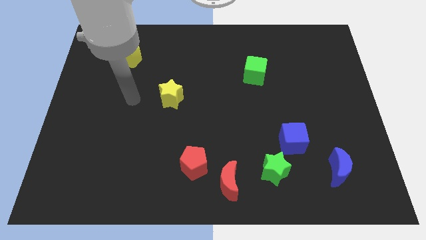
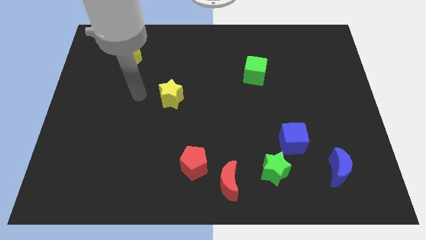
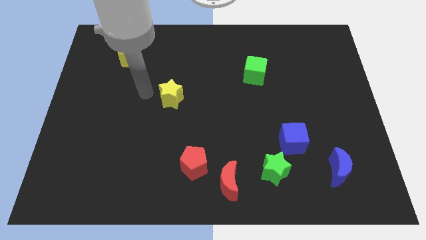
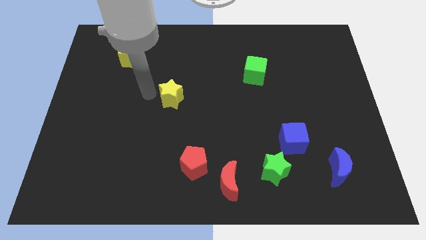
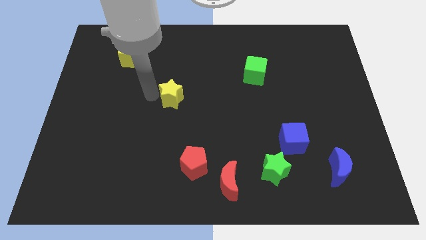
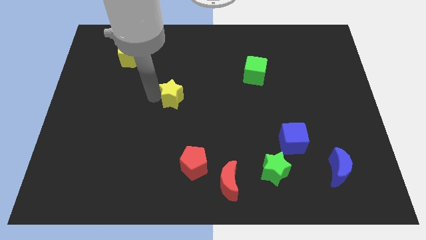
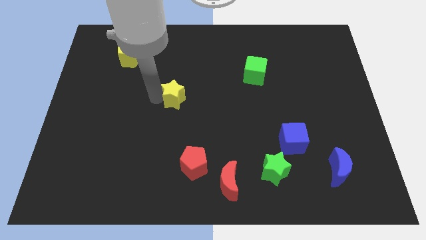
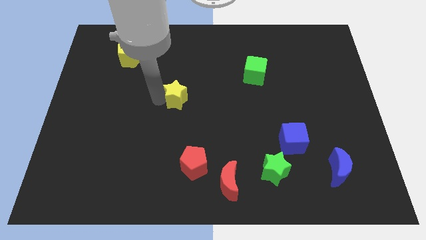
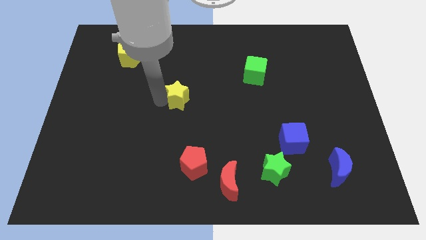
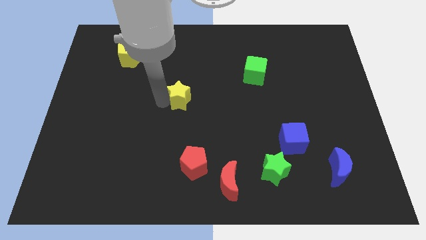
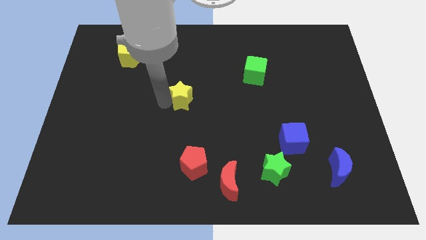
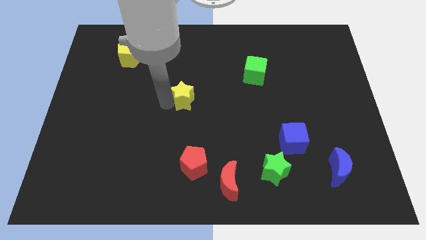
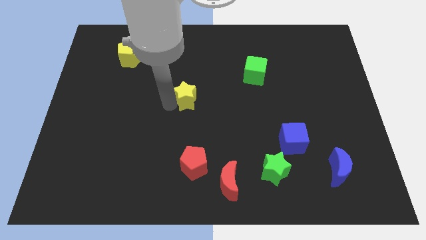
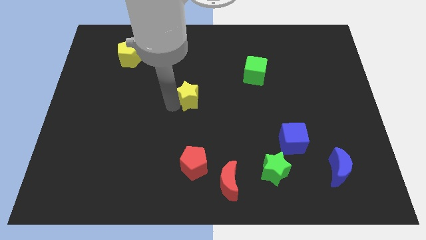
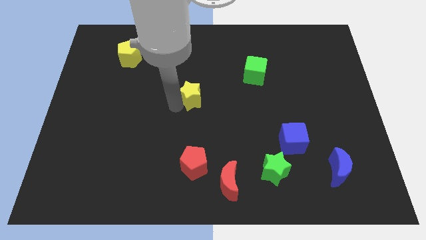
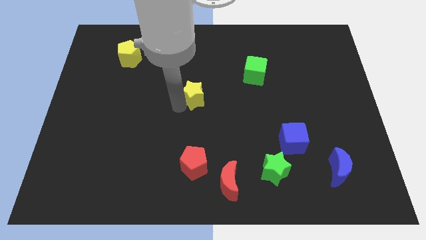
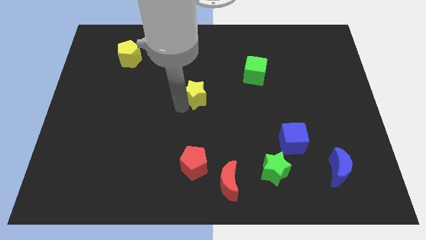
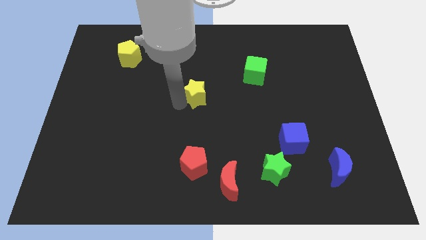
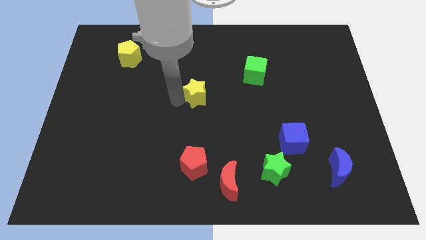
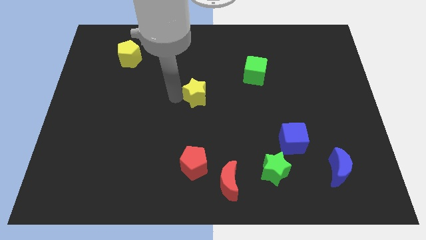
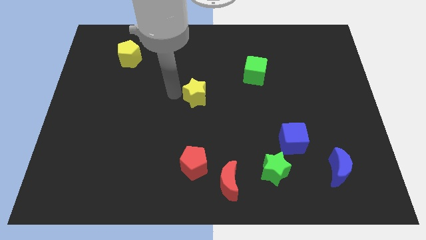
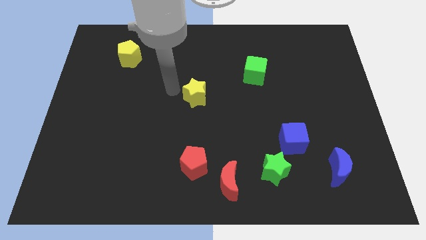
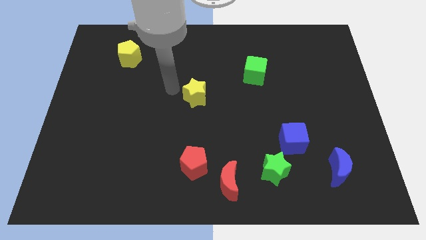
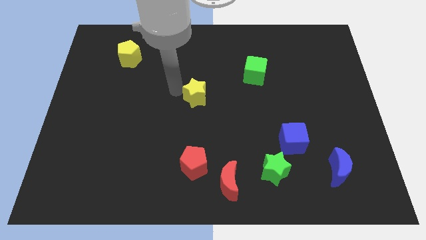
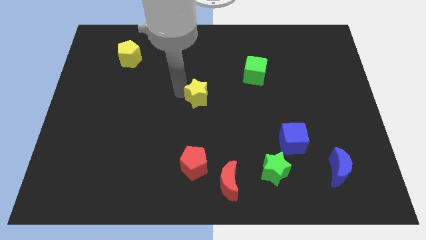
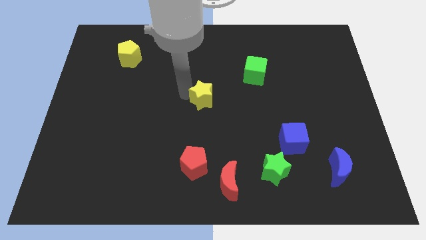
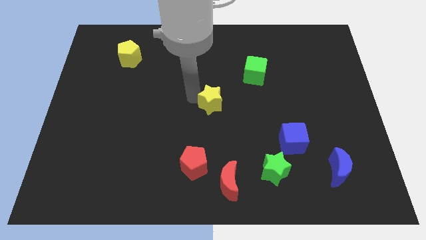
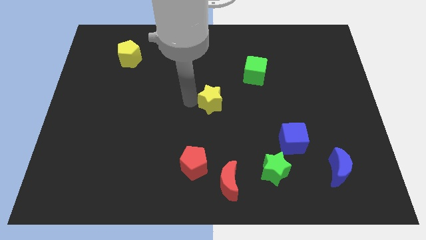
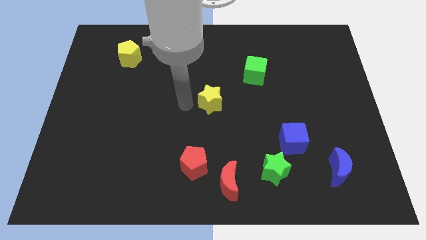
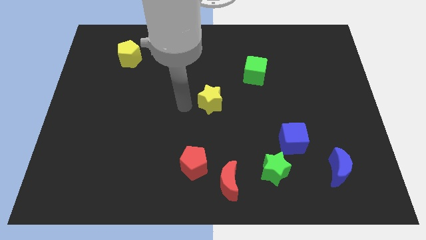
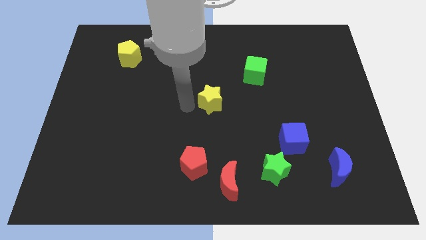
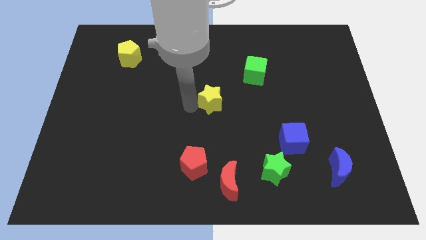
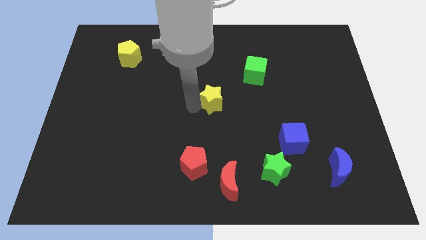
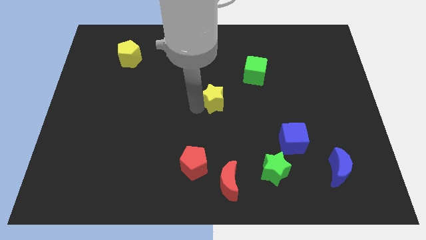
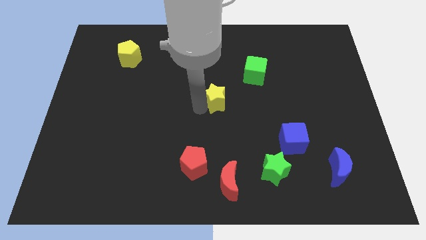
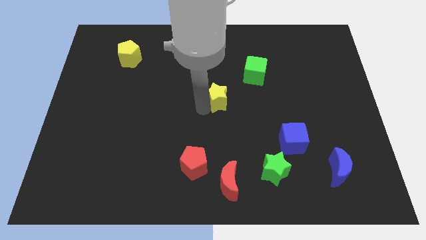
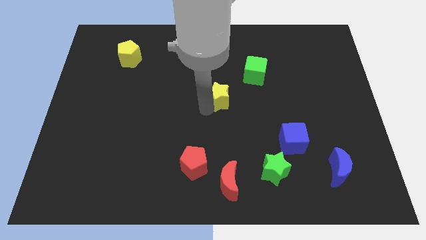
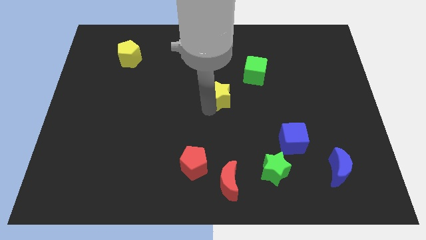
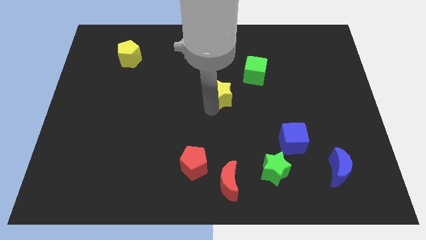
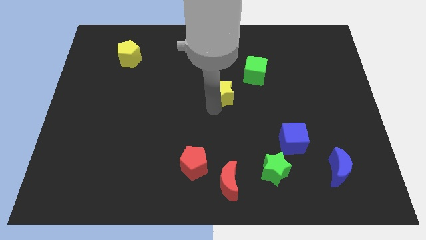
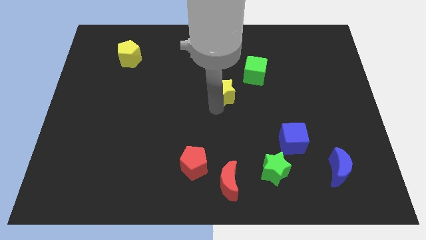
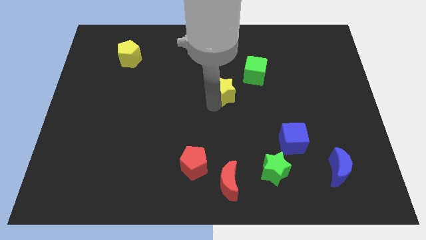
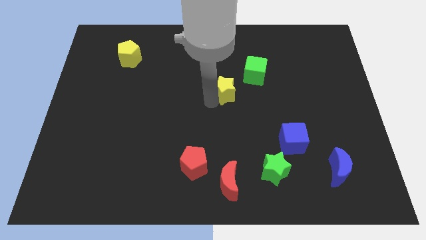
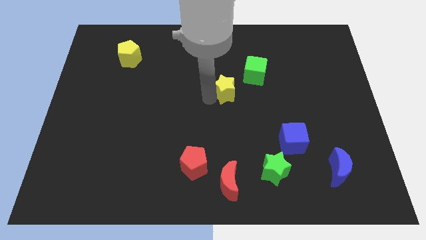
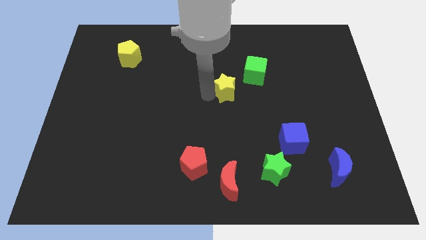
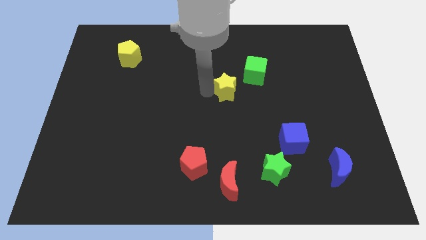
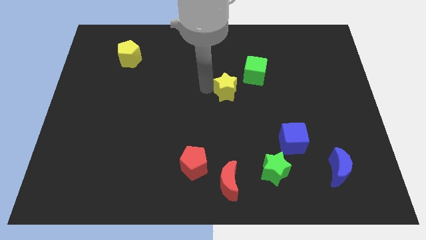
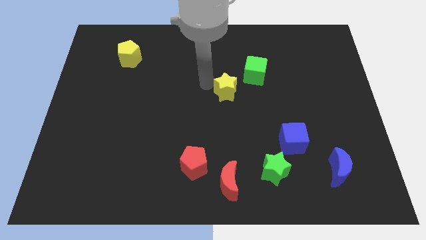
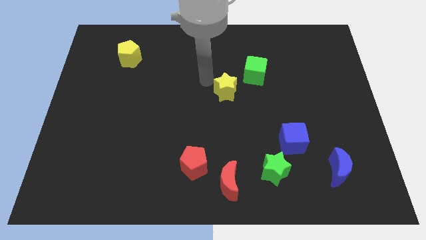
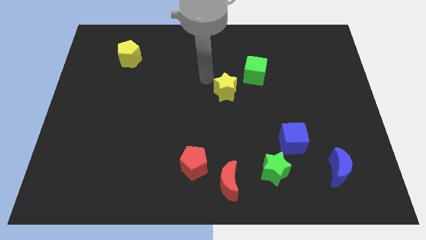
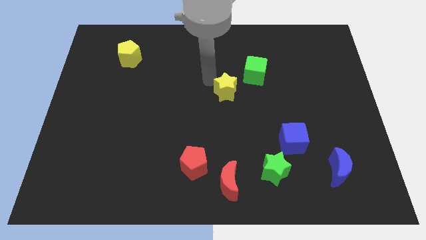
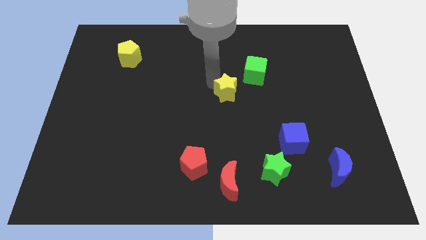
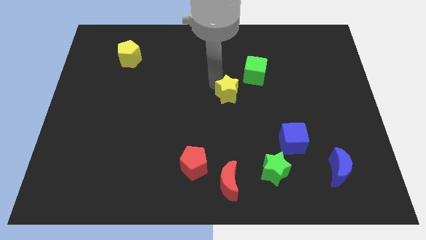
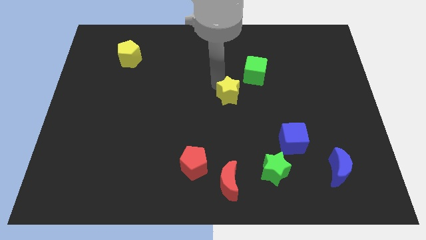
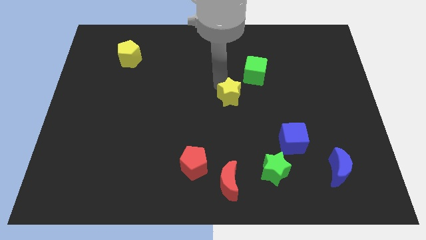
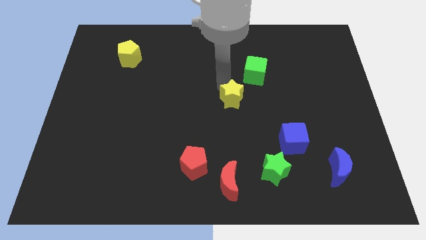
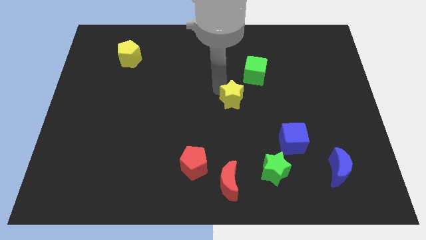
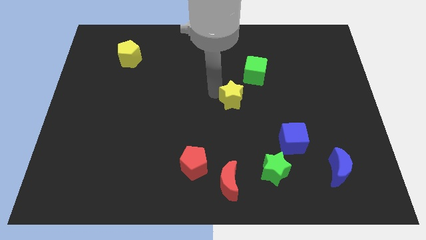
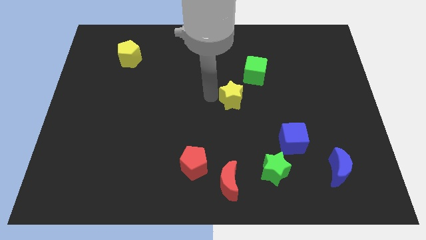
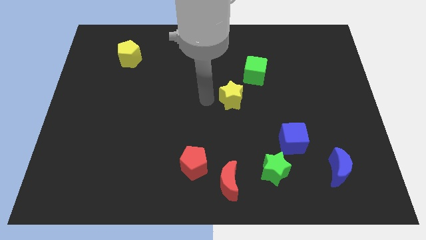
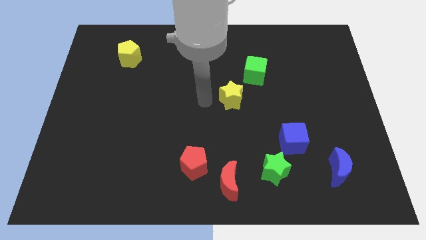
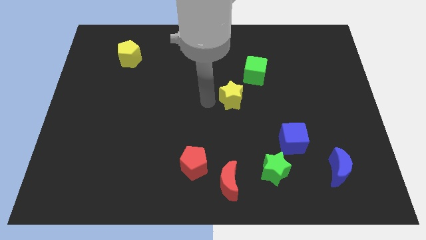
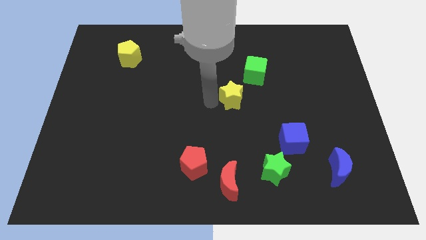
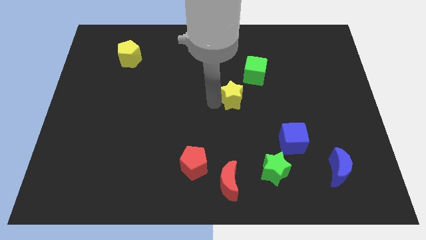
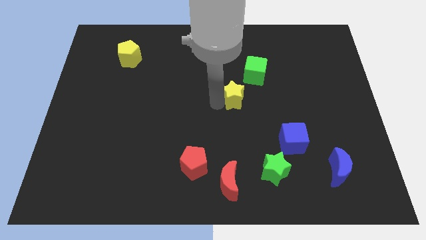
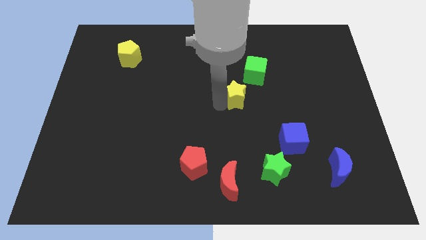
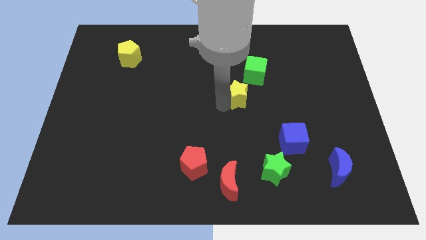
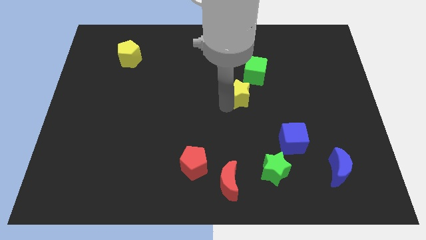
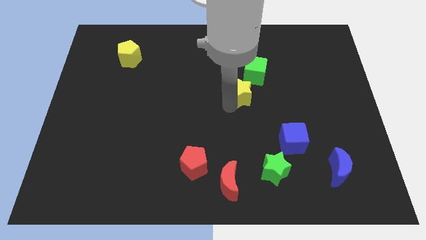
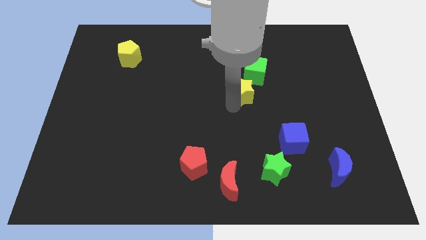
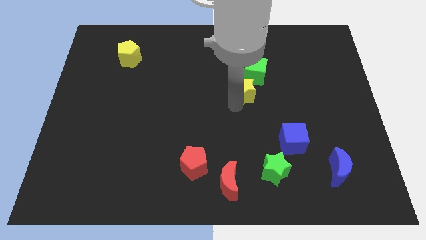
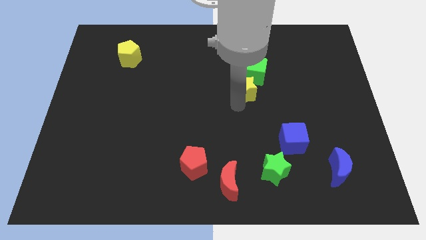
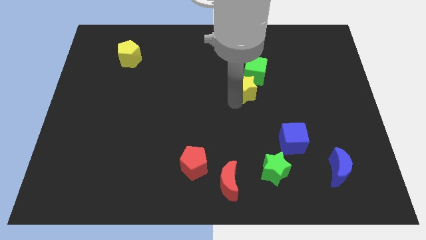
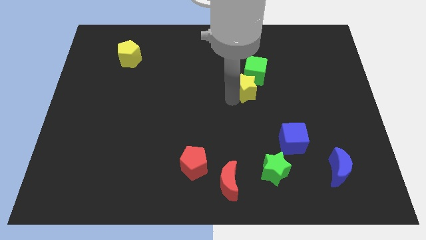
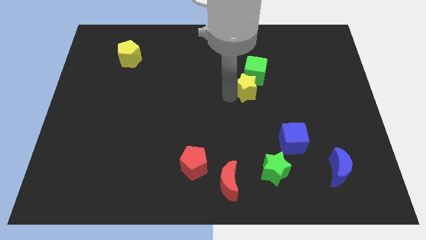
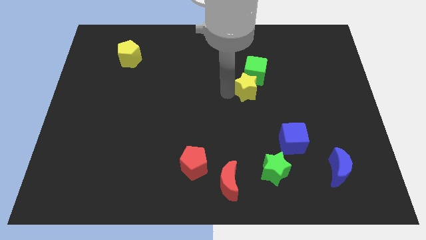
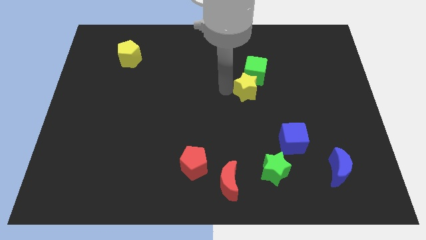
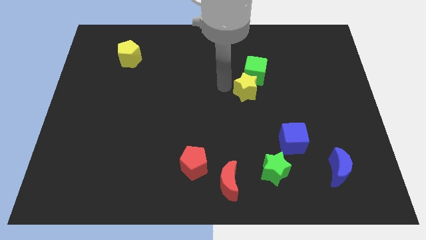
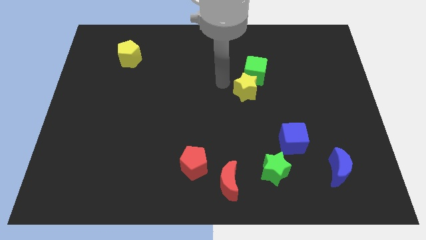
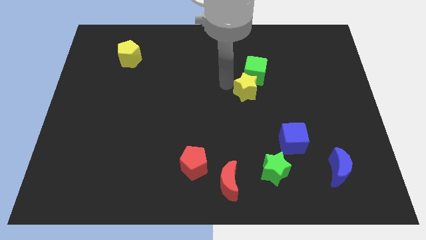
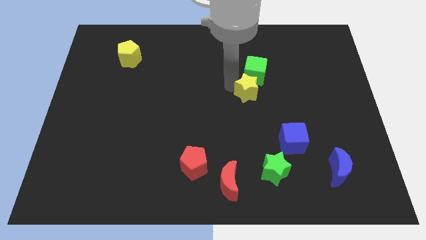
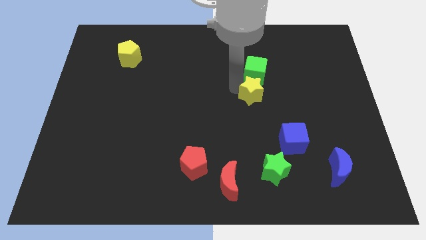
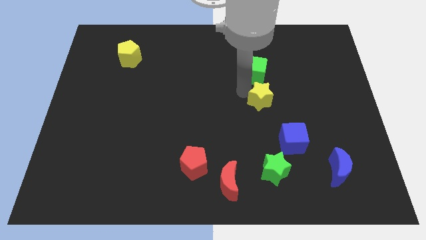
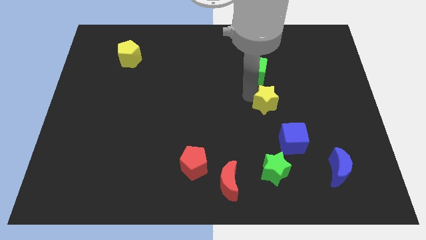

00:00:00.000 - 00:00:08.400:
put the yellow star to the top side of the blue cube
